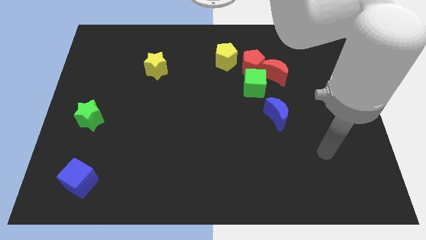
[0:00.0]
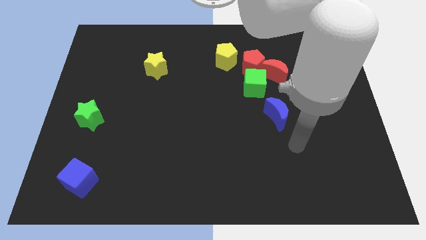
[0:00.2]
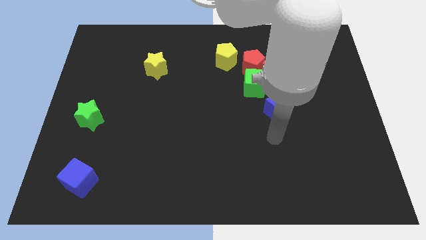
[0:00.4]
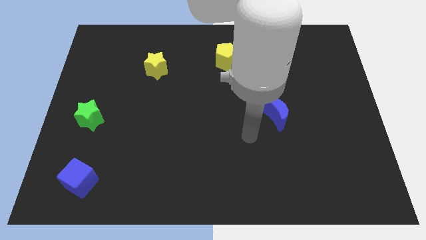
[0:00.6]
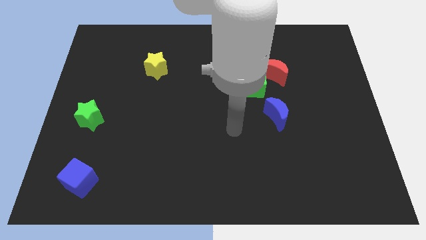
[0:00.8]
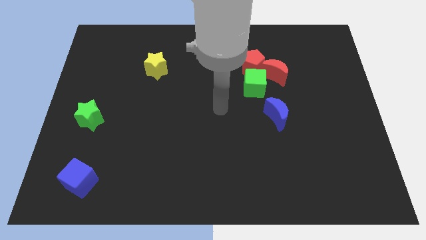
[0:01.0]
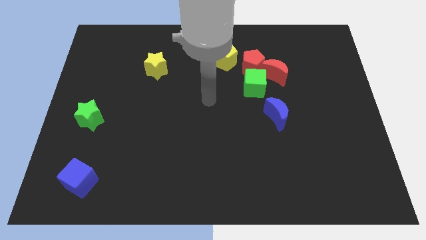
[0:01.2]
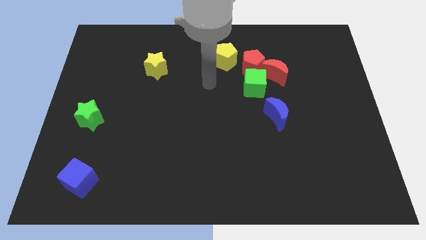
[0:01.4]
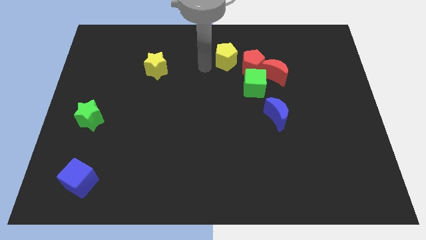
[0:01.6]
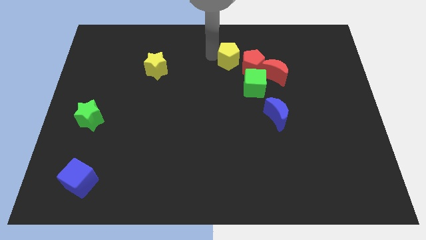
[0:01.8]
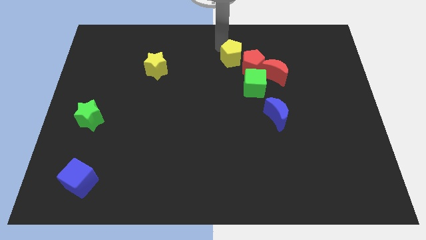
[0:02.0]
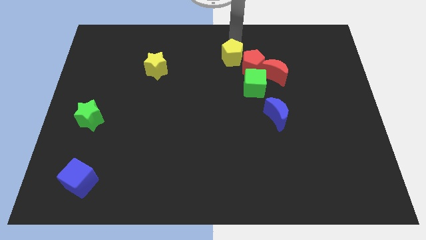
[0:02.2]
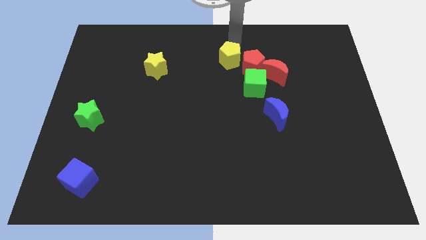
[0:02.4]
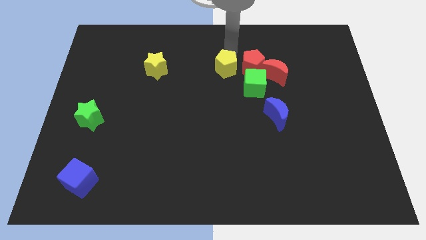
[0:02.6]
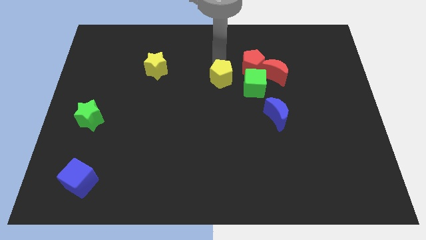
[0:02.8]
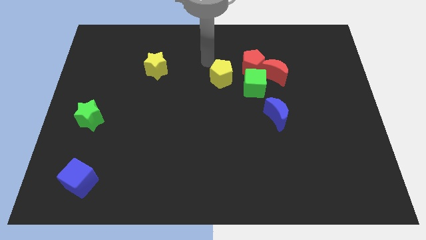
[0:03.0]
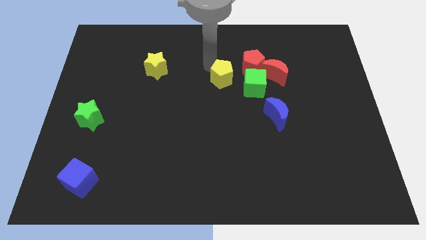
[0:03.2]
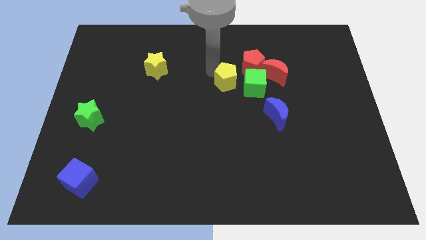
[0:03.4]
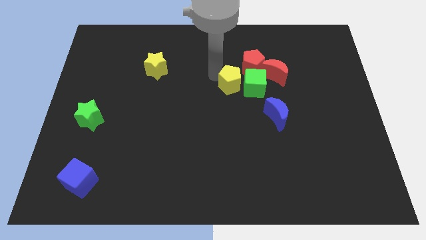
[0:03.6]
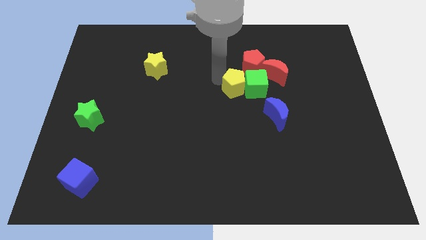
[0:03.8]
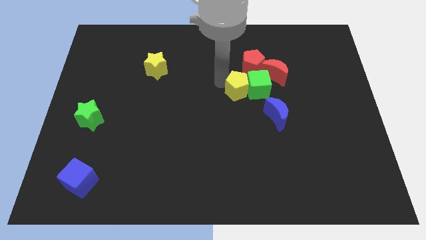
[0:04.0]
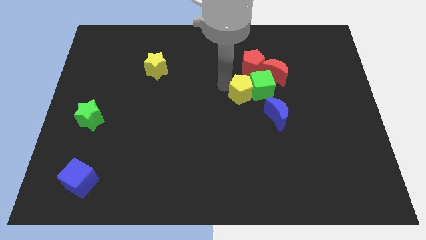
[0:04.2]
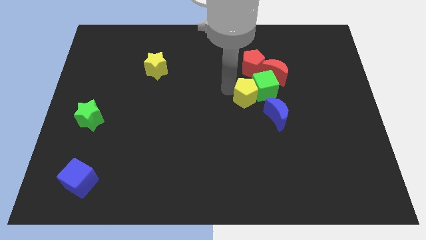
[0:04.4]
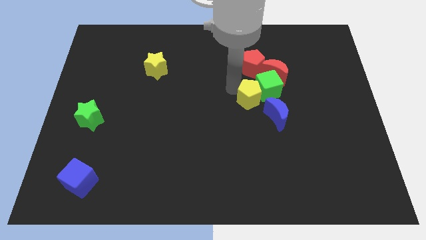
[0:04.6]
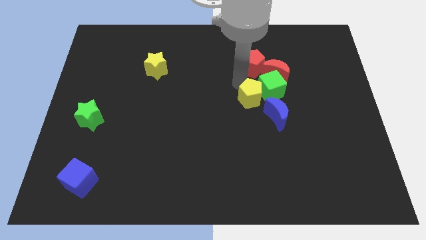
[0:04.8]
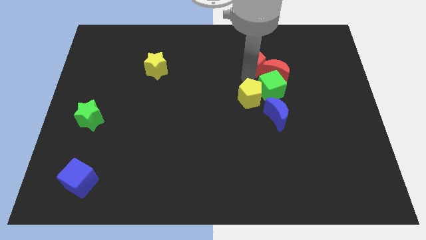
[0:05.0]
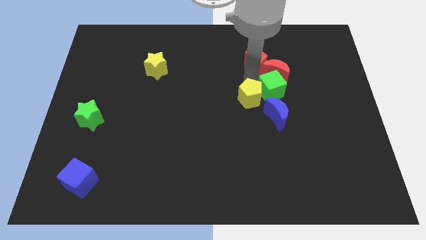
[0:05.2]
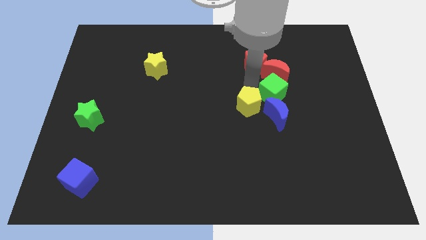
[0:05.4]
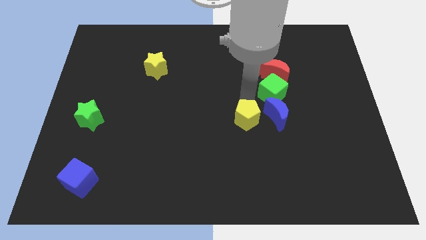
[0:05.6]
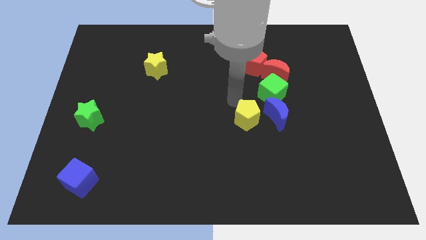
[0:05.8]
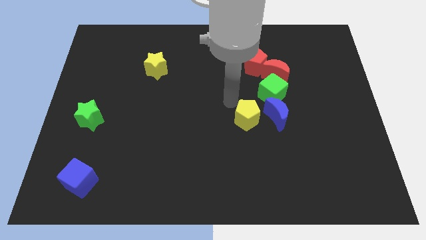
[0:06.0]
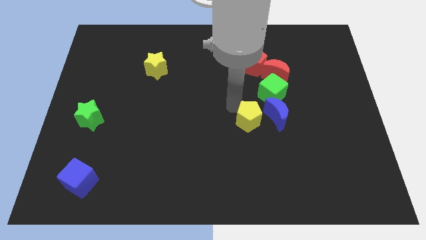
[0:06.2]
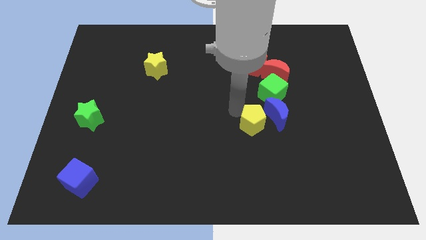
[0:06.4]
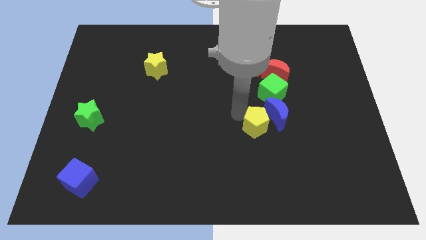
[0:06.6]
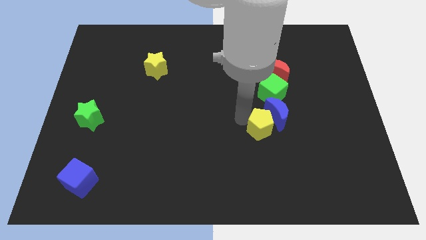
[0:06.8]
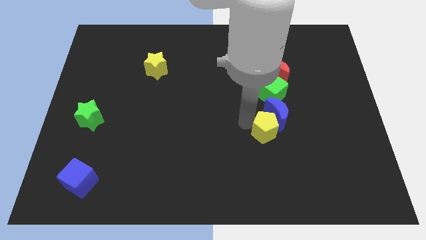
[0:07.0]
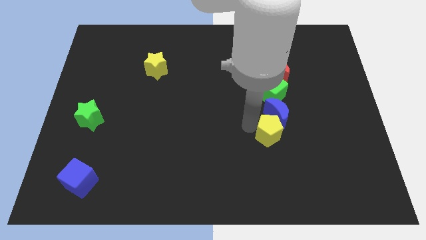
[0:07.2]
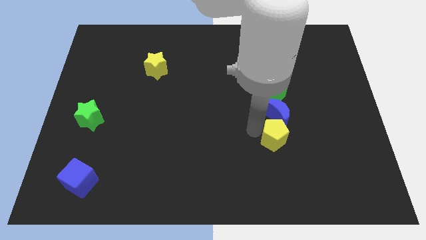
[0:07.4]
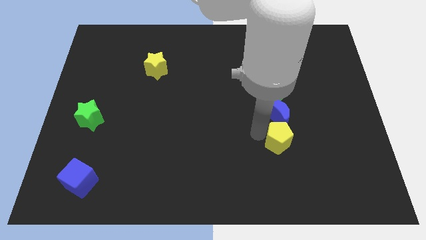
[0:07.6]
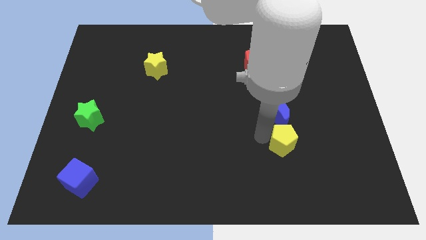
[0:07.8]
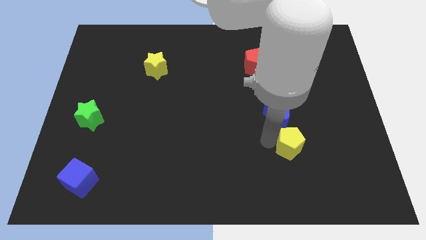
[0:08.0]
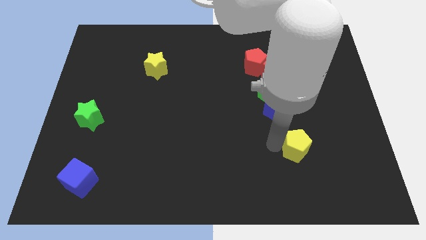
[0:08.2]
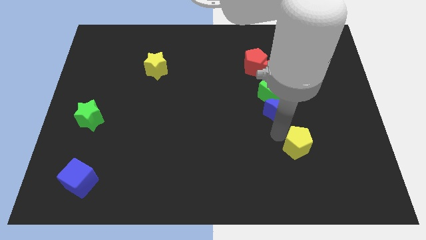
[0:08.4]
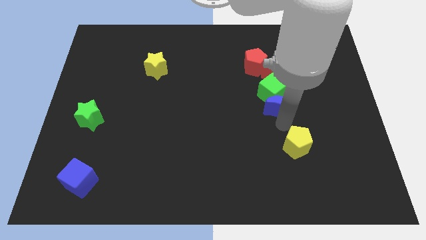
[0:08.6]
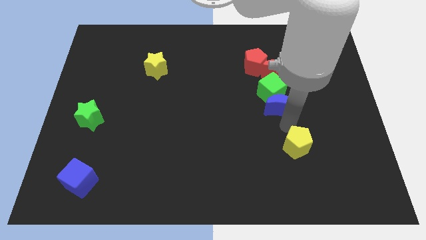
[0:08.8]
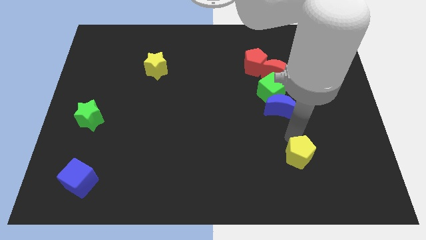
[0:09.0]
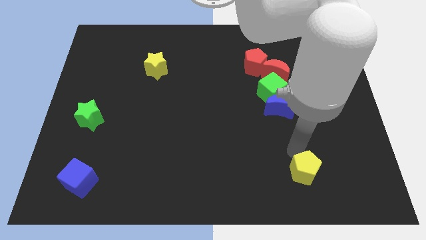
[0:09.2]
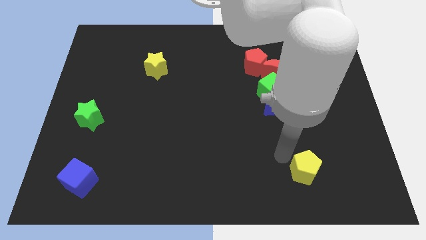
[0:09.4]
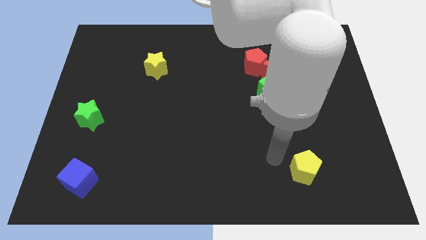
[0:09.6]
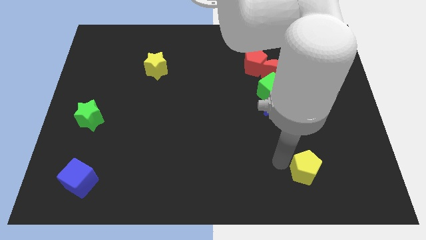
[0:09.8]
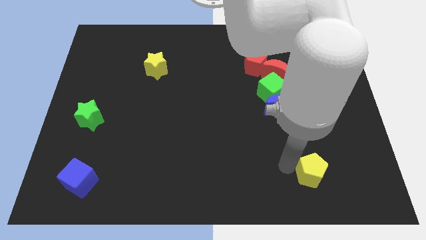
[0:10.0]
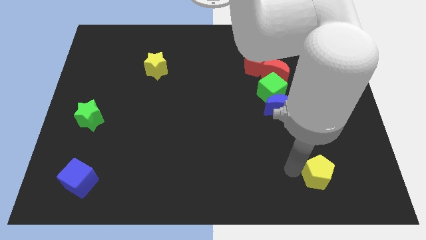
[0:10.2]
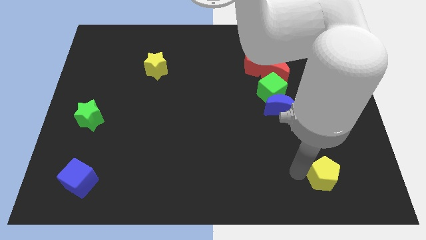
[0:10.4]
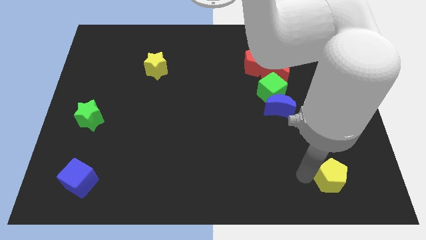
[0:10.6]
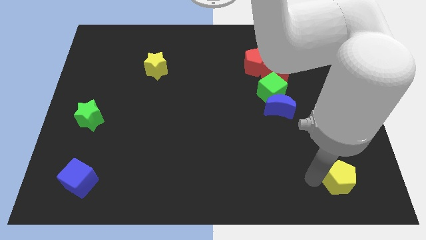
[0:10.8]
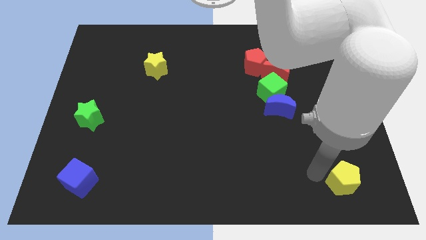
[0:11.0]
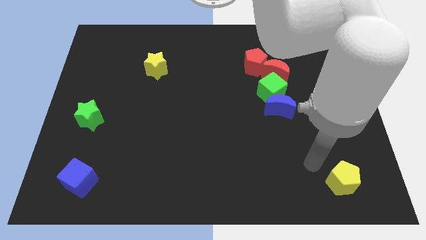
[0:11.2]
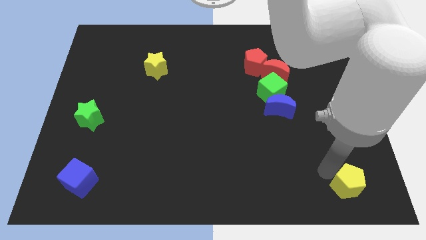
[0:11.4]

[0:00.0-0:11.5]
move the yellow pentagon to the lower right corner
